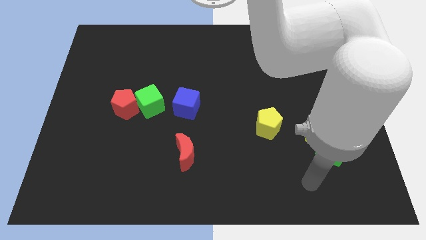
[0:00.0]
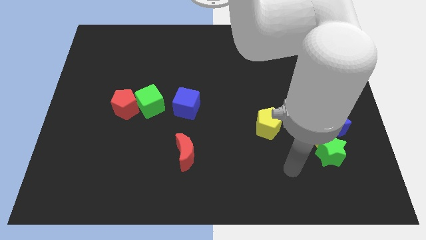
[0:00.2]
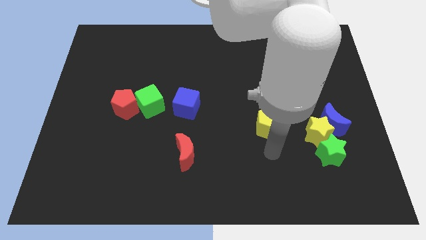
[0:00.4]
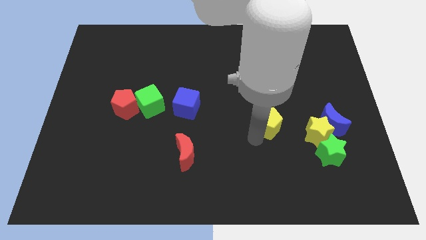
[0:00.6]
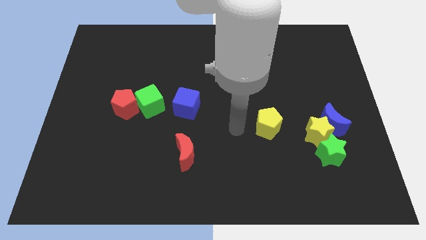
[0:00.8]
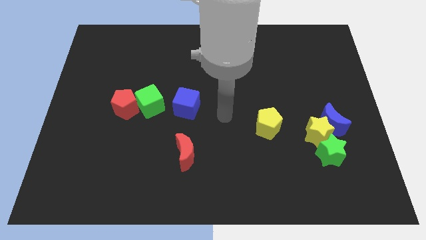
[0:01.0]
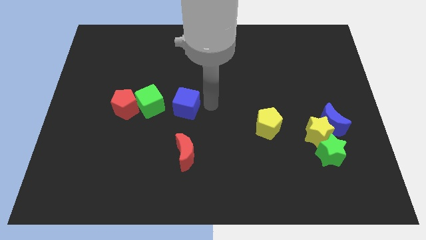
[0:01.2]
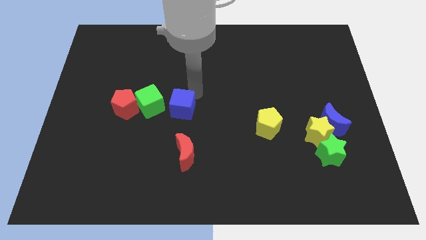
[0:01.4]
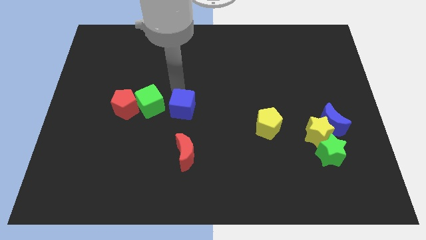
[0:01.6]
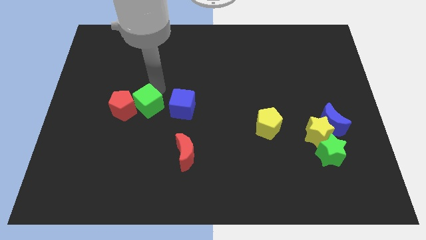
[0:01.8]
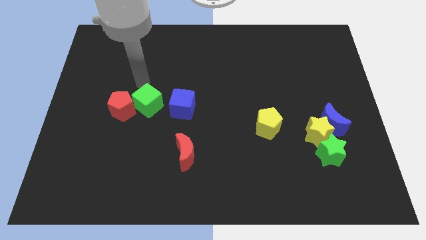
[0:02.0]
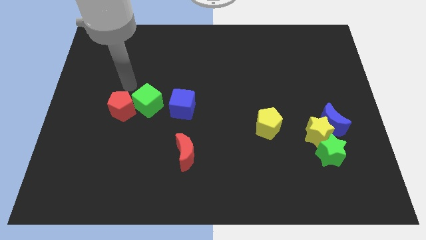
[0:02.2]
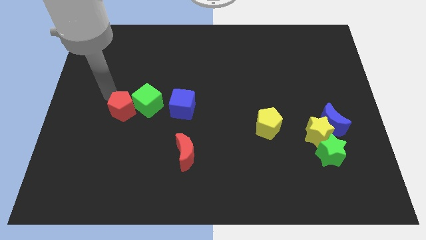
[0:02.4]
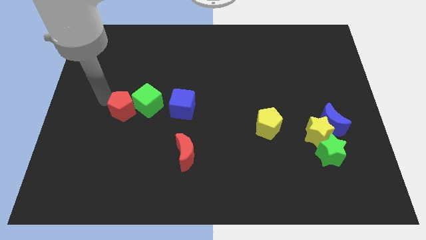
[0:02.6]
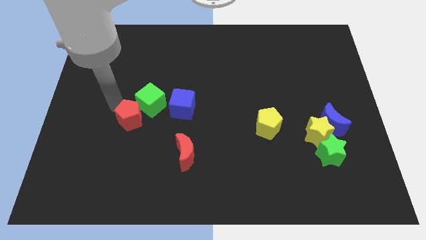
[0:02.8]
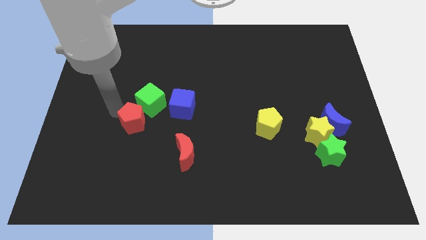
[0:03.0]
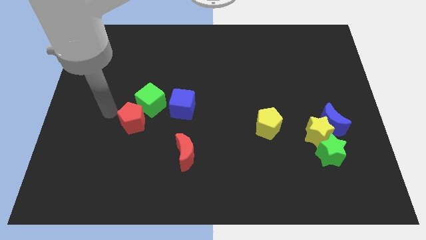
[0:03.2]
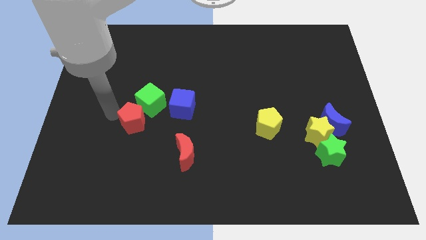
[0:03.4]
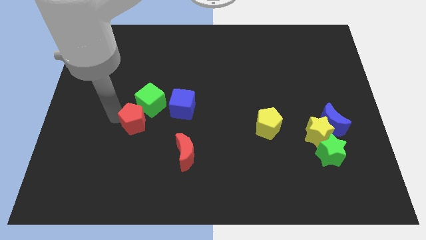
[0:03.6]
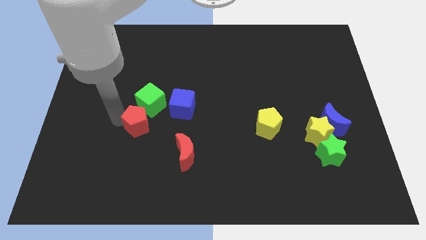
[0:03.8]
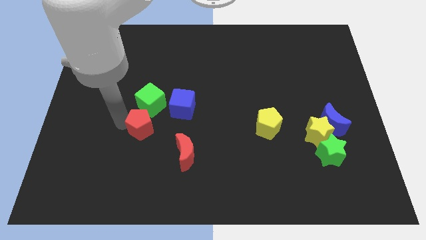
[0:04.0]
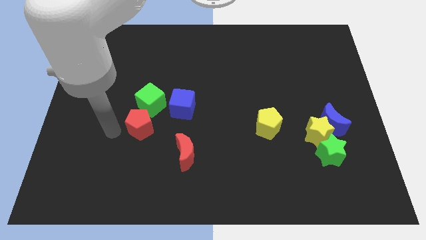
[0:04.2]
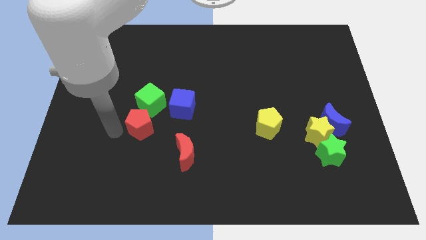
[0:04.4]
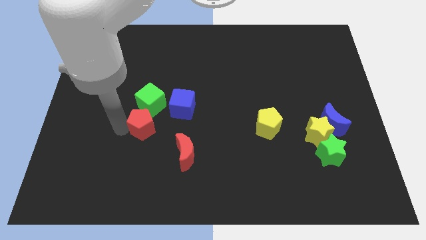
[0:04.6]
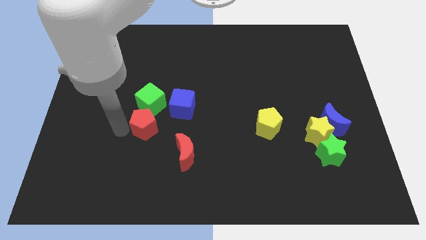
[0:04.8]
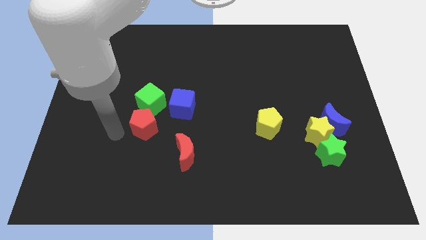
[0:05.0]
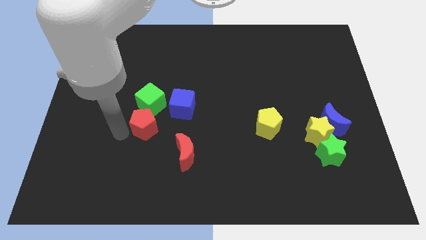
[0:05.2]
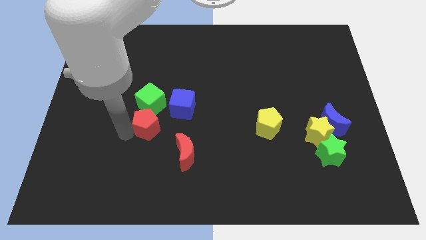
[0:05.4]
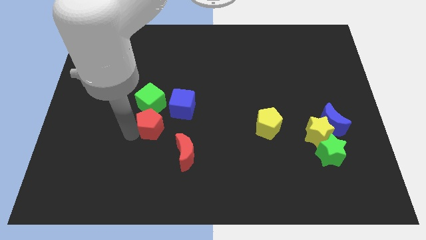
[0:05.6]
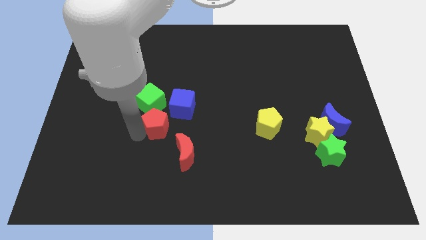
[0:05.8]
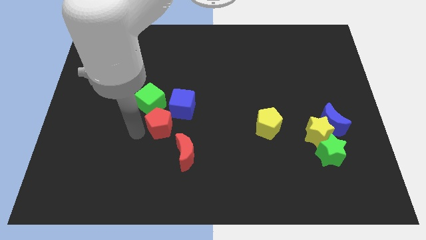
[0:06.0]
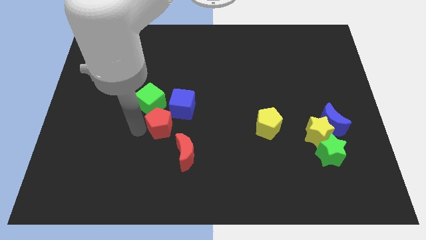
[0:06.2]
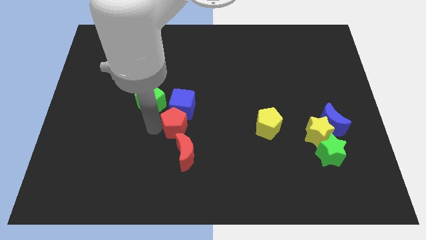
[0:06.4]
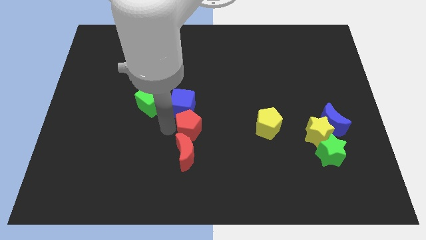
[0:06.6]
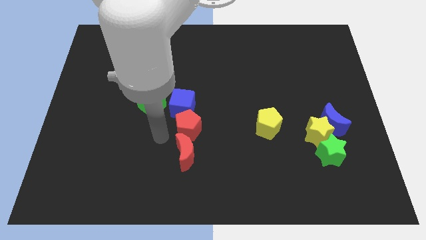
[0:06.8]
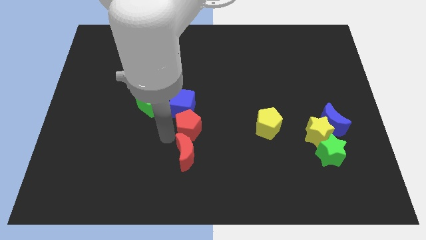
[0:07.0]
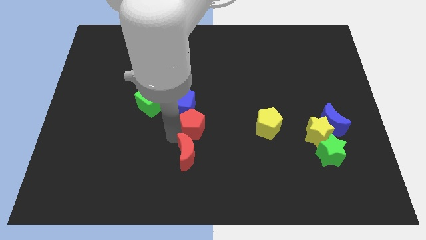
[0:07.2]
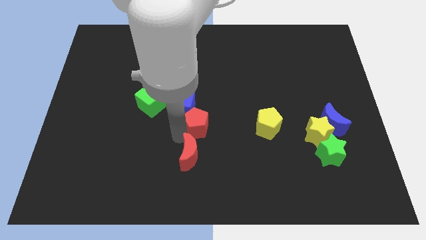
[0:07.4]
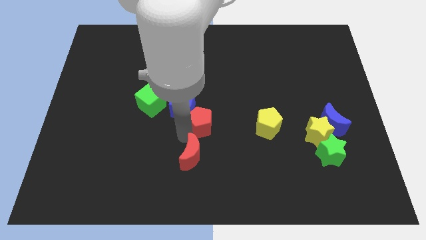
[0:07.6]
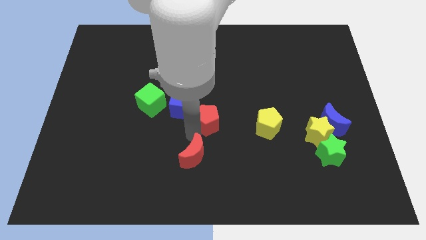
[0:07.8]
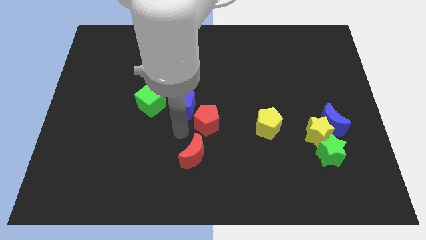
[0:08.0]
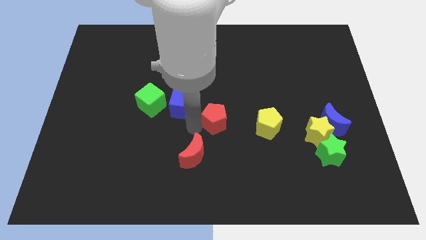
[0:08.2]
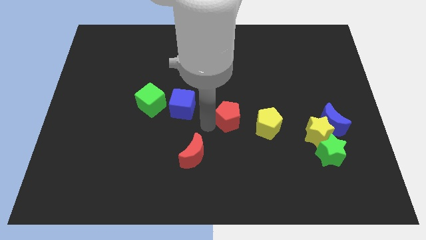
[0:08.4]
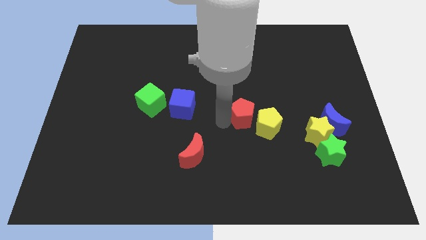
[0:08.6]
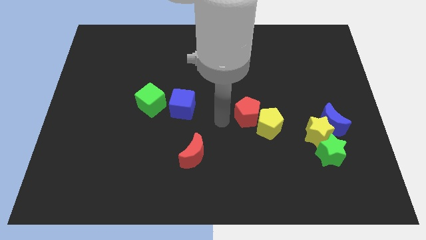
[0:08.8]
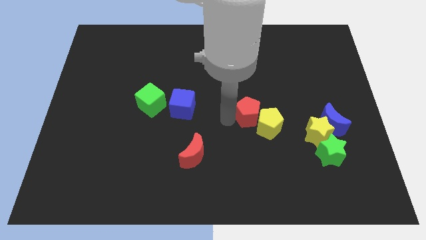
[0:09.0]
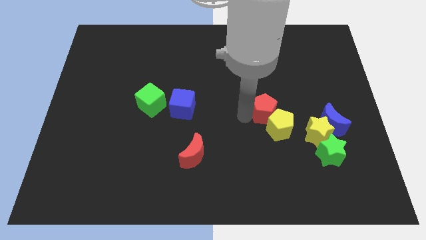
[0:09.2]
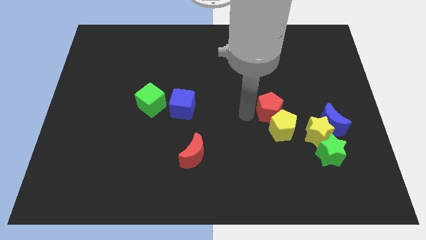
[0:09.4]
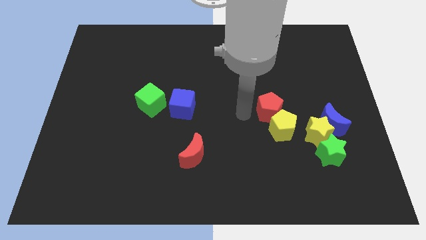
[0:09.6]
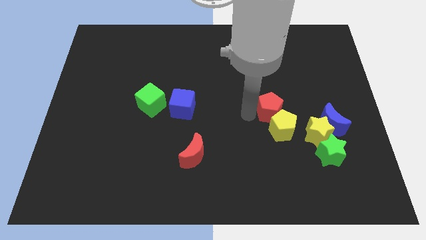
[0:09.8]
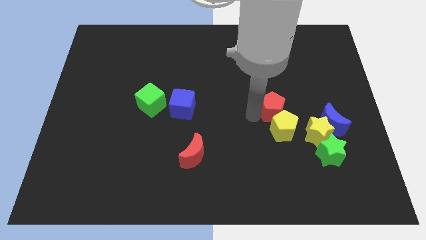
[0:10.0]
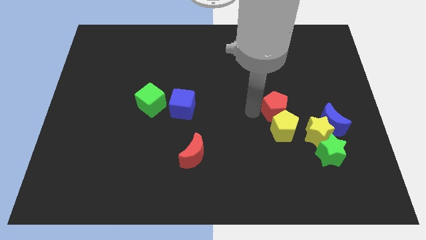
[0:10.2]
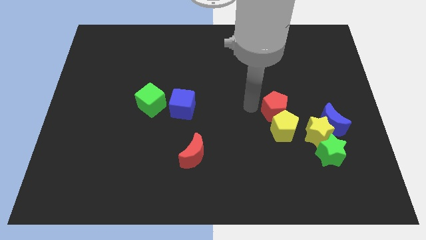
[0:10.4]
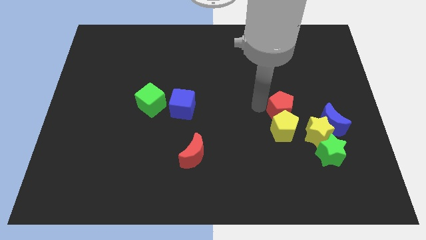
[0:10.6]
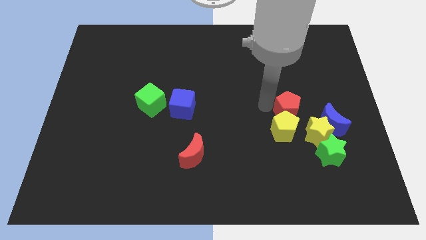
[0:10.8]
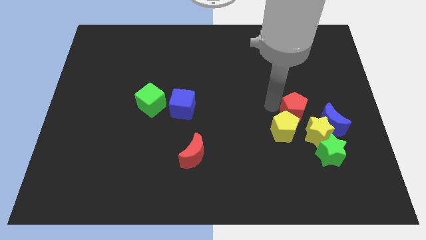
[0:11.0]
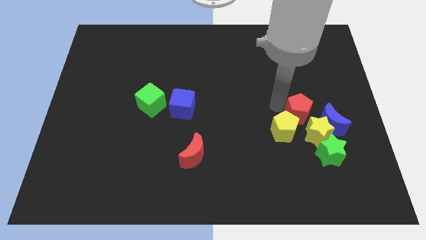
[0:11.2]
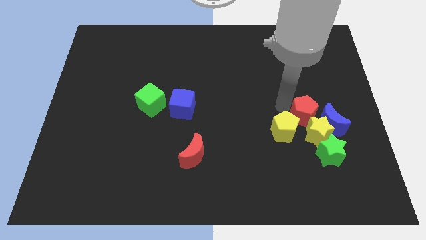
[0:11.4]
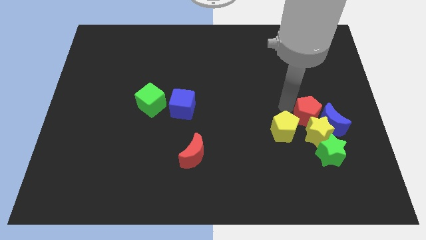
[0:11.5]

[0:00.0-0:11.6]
push the red pentagon towards the blue moon

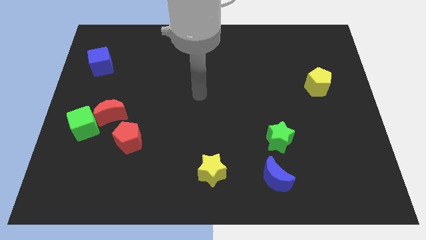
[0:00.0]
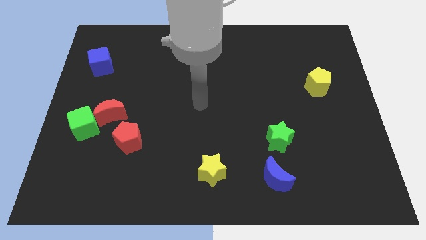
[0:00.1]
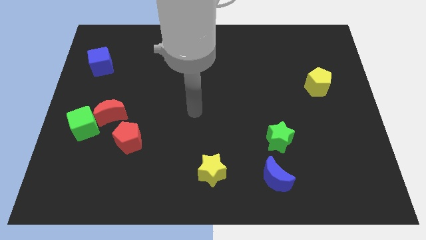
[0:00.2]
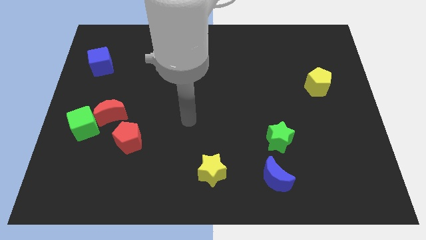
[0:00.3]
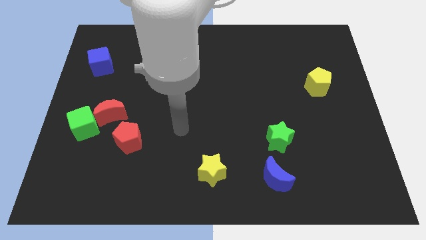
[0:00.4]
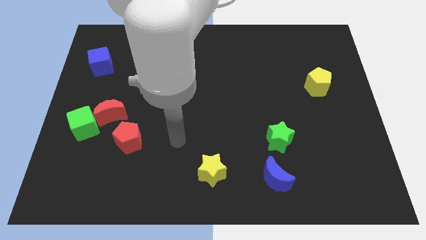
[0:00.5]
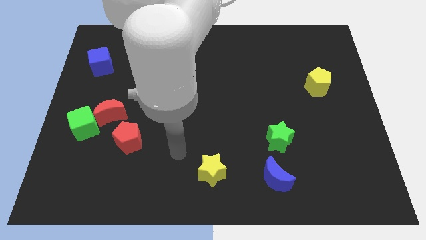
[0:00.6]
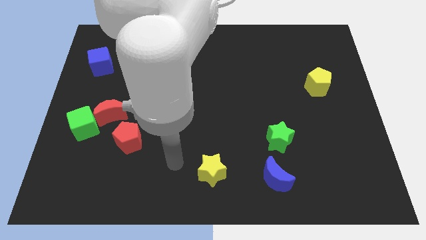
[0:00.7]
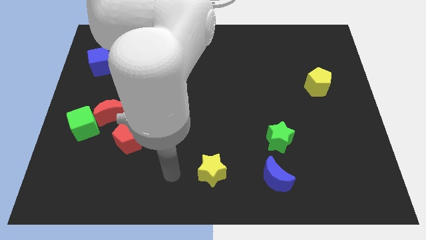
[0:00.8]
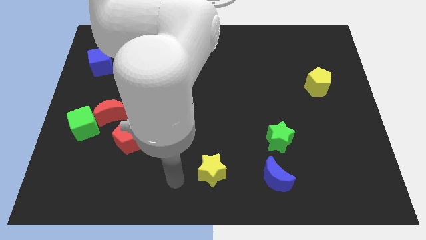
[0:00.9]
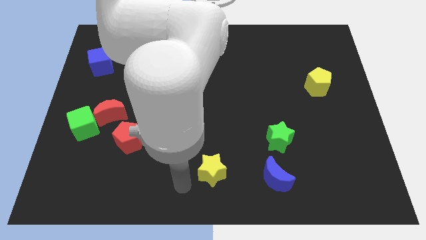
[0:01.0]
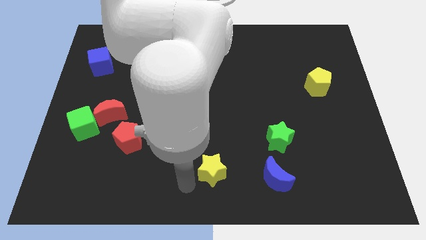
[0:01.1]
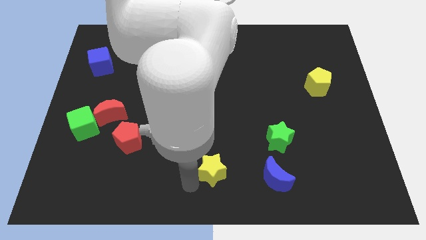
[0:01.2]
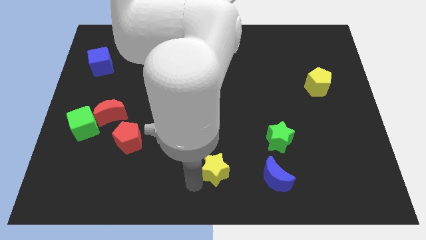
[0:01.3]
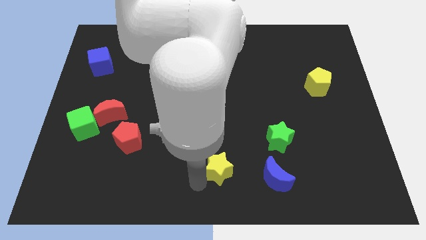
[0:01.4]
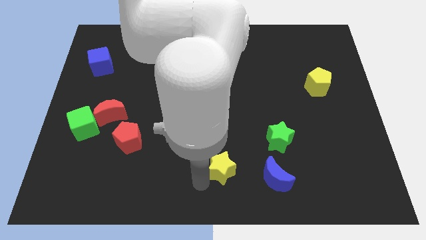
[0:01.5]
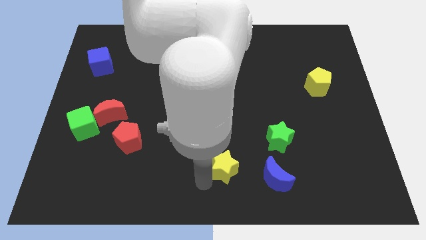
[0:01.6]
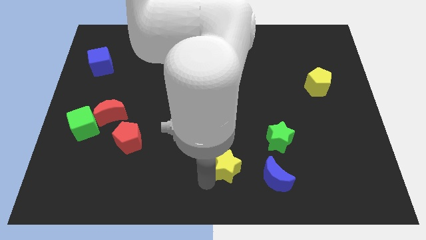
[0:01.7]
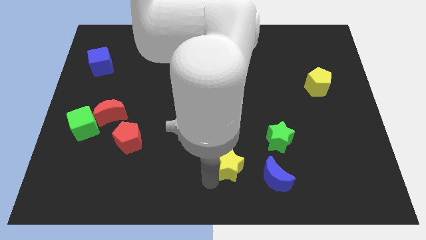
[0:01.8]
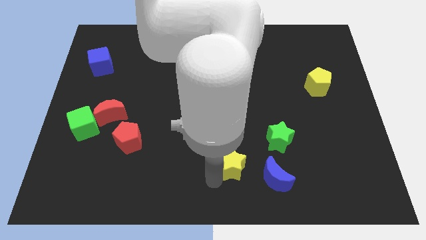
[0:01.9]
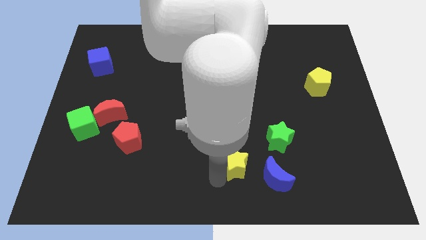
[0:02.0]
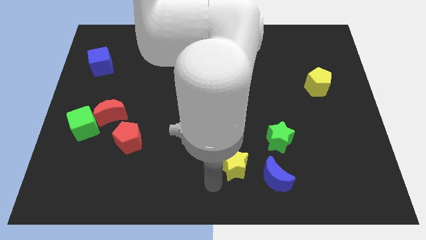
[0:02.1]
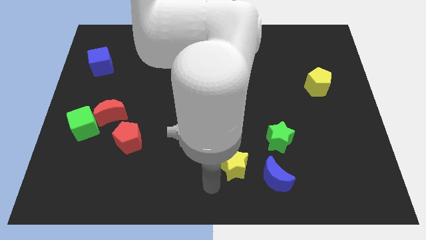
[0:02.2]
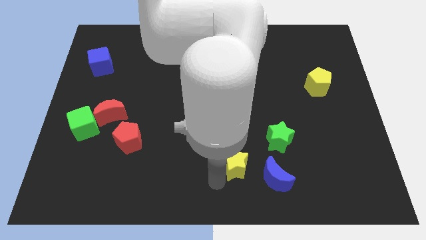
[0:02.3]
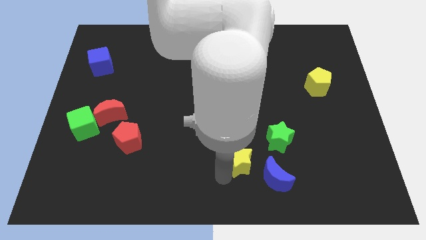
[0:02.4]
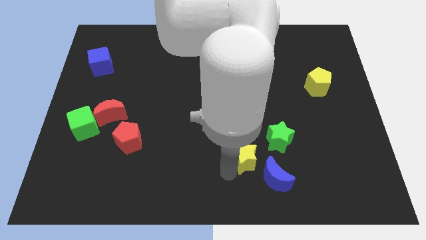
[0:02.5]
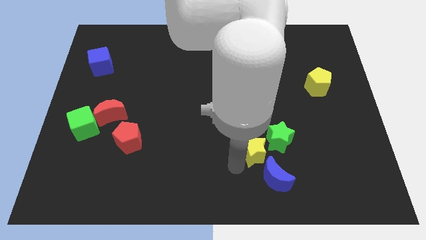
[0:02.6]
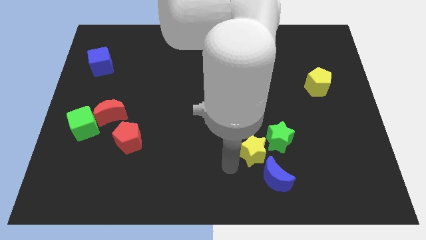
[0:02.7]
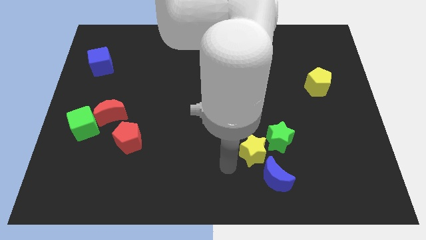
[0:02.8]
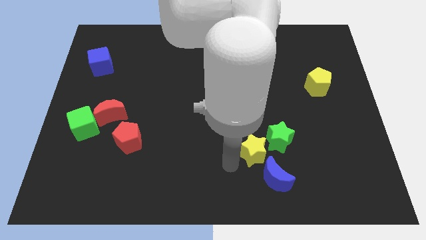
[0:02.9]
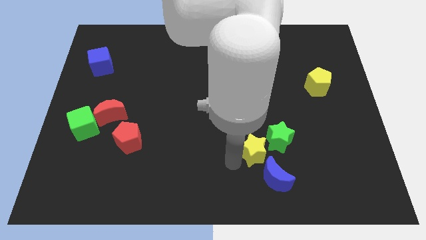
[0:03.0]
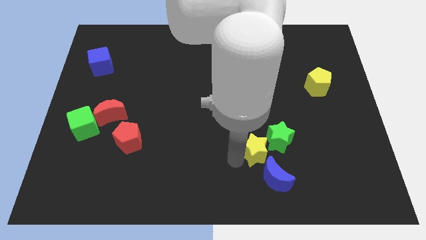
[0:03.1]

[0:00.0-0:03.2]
push the yellow star towards the green star
